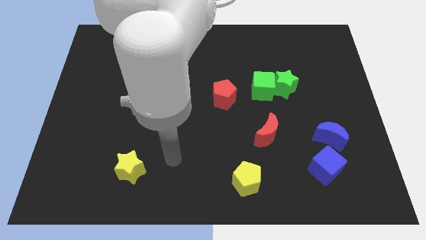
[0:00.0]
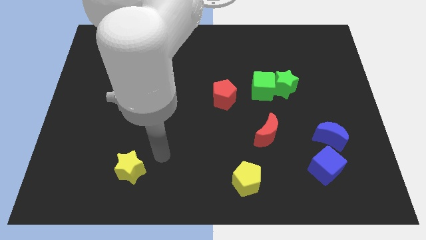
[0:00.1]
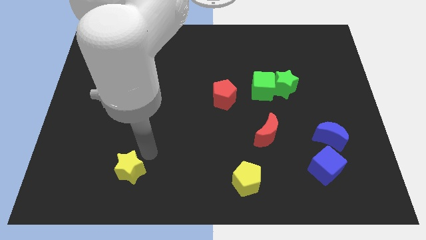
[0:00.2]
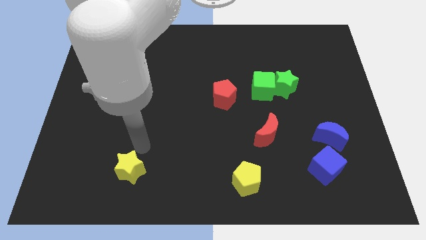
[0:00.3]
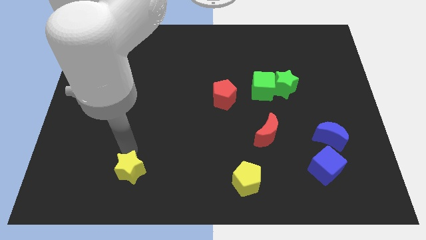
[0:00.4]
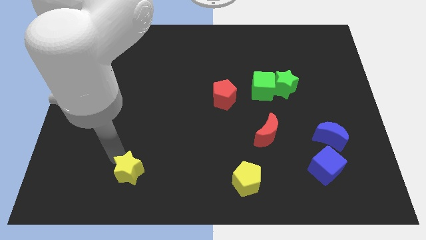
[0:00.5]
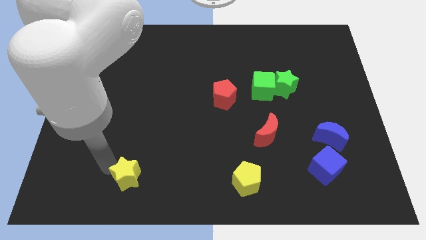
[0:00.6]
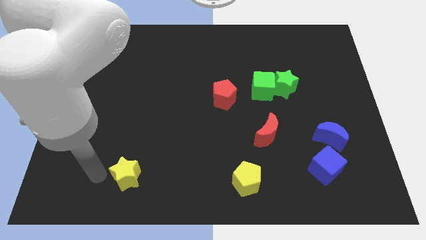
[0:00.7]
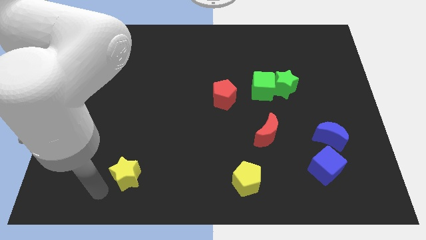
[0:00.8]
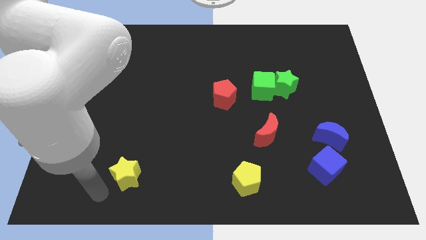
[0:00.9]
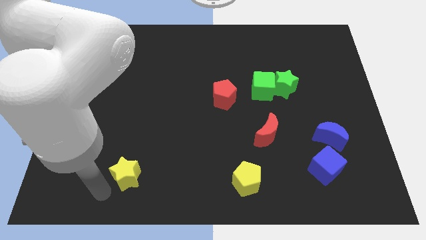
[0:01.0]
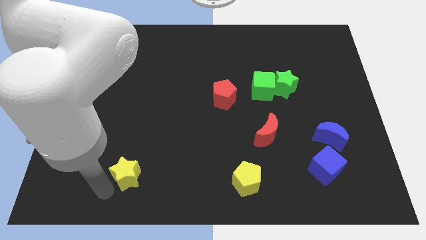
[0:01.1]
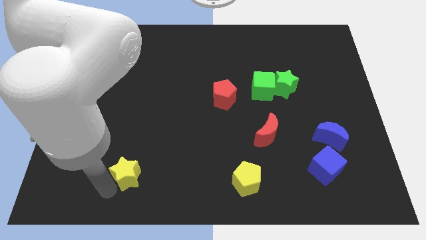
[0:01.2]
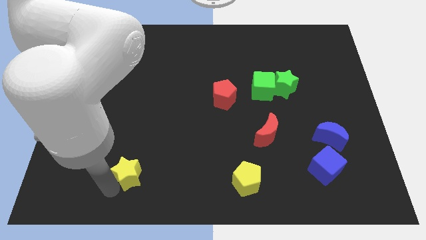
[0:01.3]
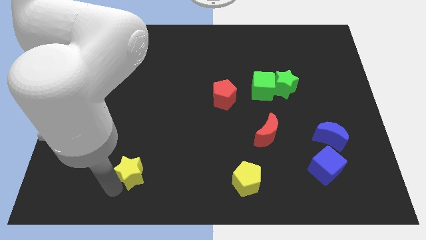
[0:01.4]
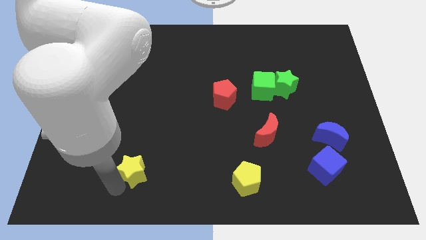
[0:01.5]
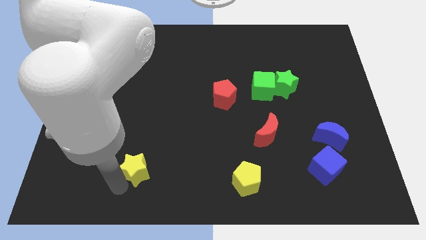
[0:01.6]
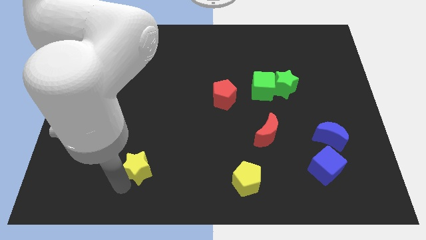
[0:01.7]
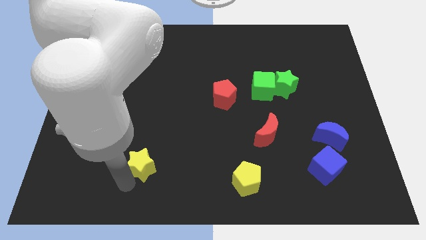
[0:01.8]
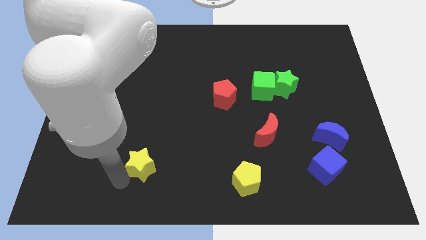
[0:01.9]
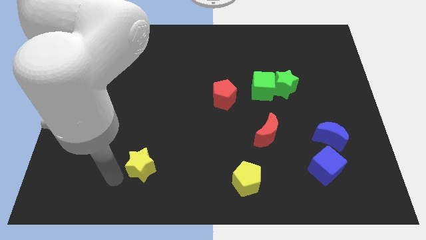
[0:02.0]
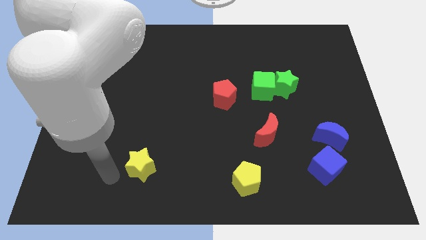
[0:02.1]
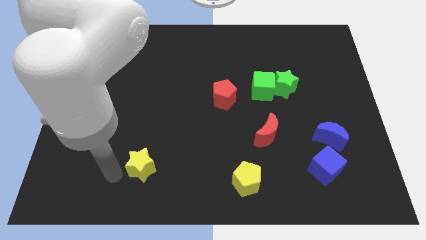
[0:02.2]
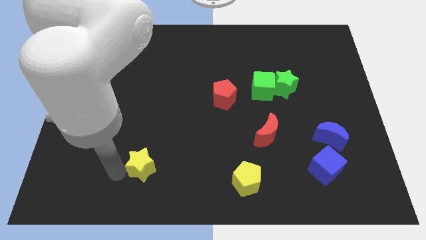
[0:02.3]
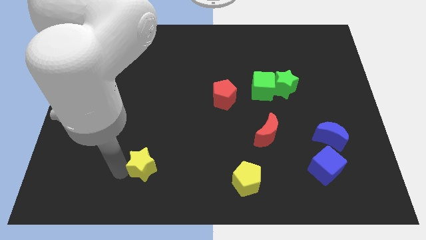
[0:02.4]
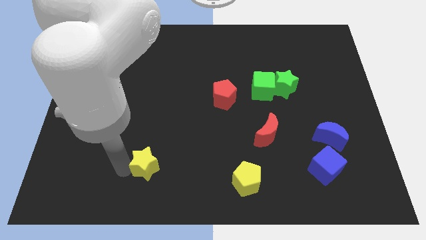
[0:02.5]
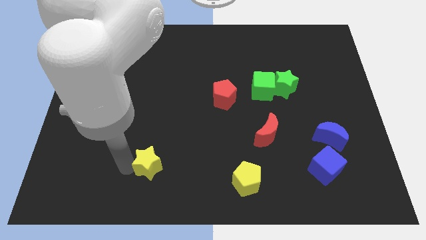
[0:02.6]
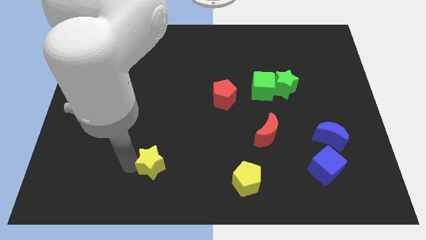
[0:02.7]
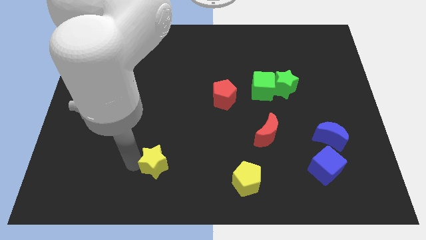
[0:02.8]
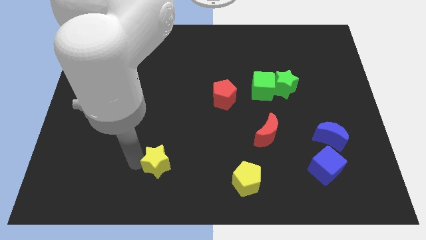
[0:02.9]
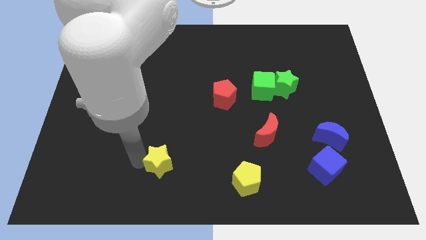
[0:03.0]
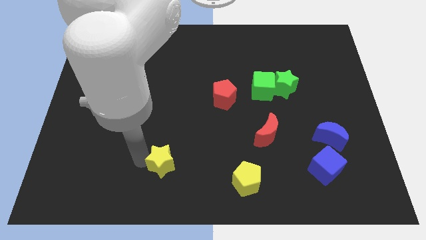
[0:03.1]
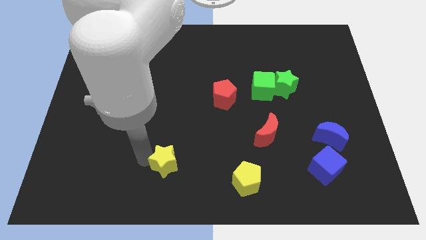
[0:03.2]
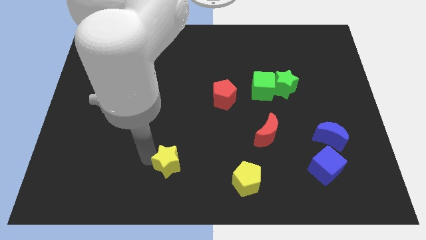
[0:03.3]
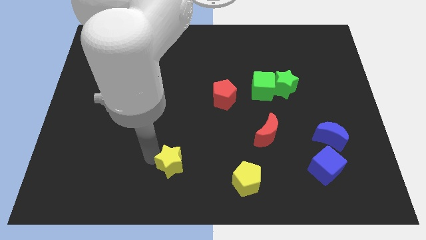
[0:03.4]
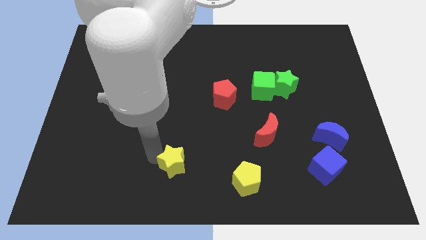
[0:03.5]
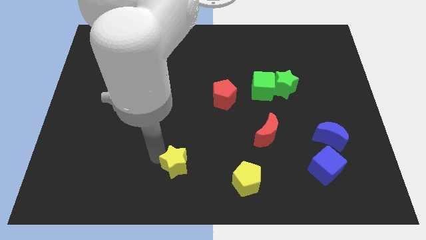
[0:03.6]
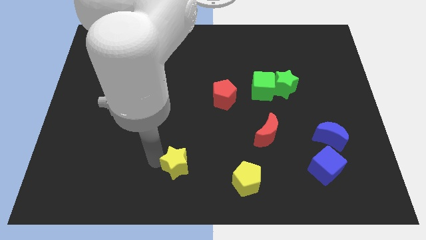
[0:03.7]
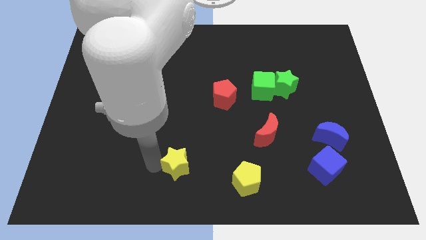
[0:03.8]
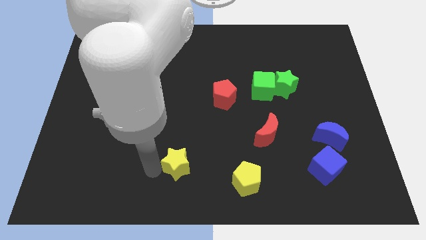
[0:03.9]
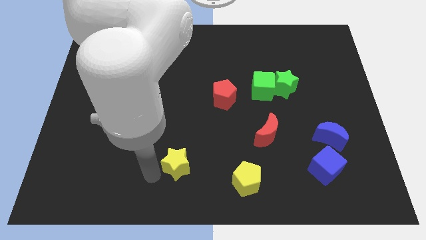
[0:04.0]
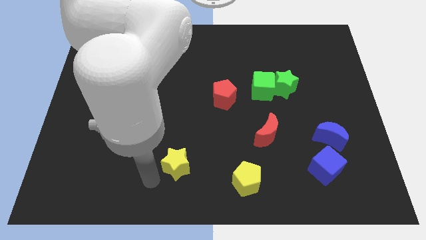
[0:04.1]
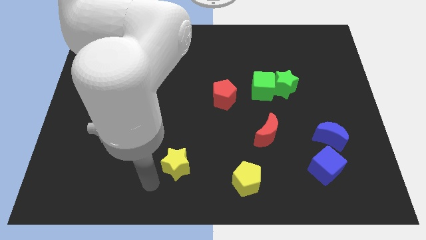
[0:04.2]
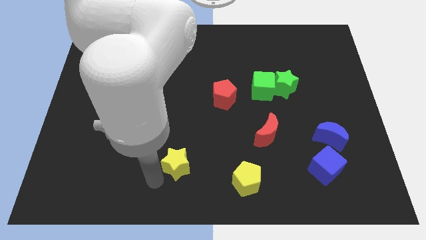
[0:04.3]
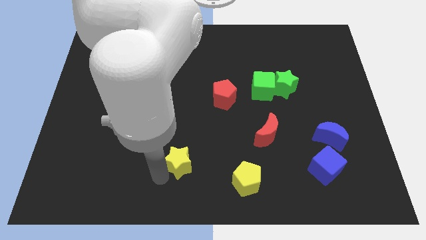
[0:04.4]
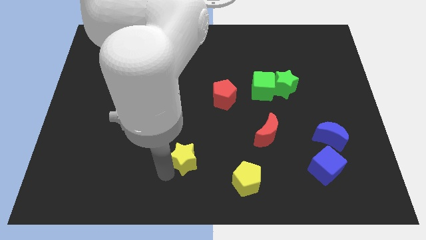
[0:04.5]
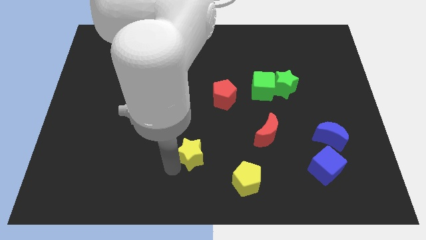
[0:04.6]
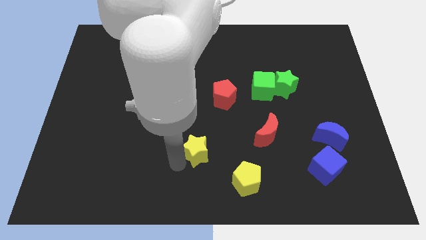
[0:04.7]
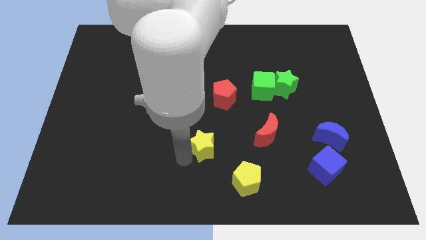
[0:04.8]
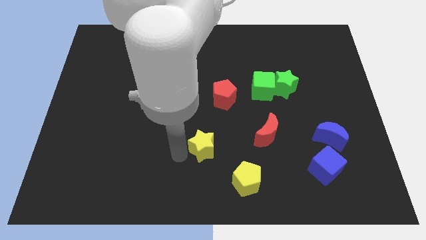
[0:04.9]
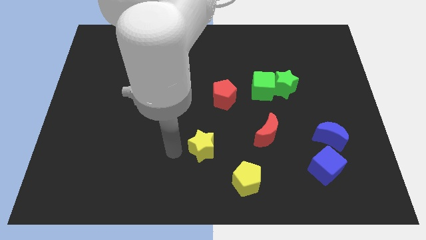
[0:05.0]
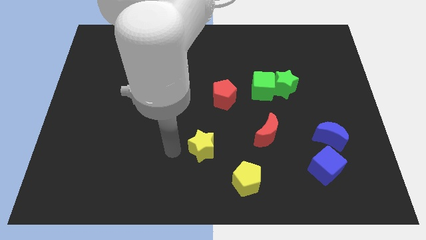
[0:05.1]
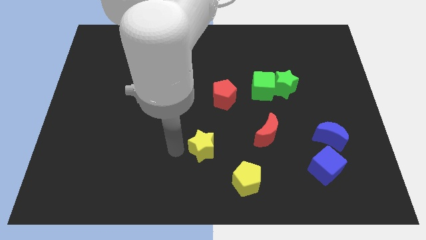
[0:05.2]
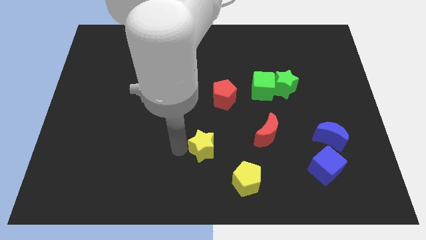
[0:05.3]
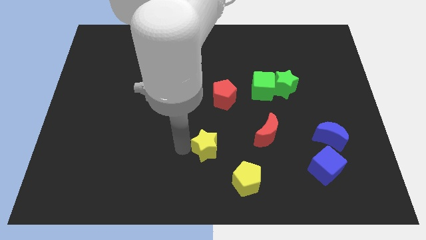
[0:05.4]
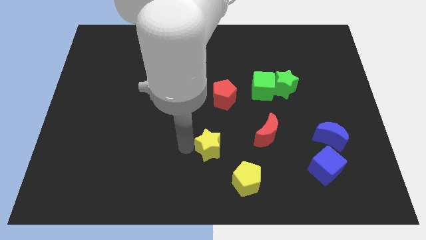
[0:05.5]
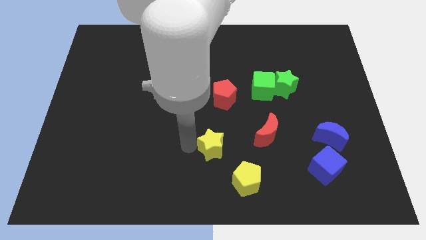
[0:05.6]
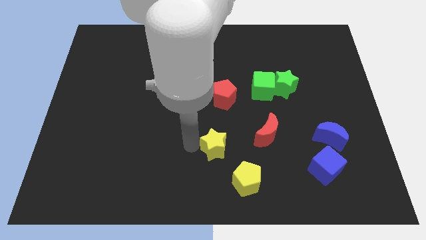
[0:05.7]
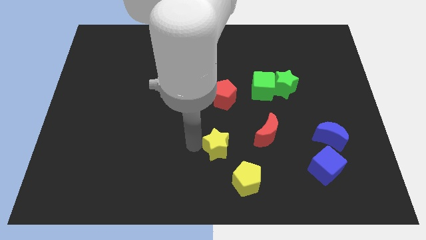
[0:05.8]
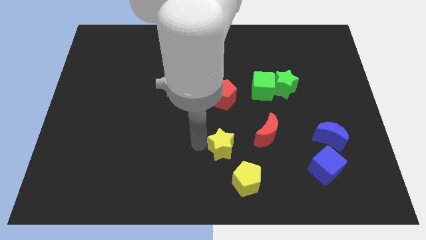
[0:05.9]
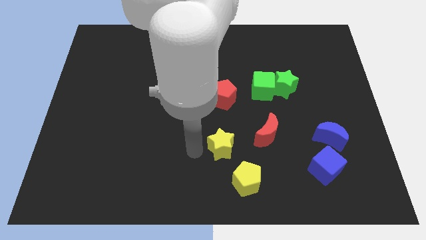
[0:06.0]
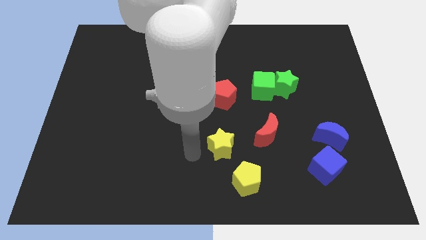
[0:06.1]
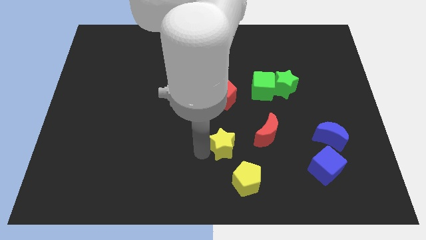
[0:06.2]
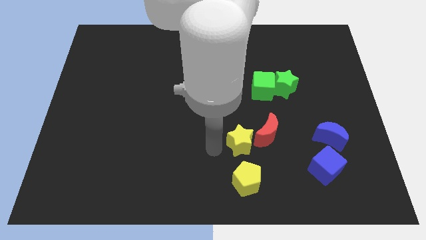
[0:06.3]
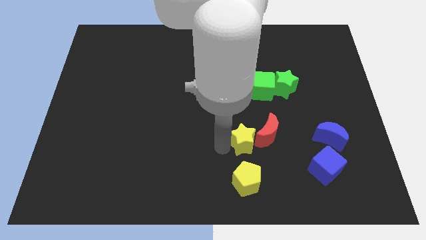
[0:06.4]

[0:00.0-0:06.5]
slide the yellow star to the red moon

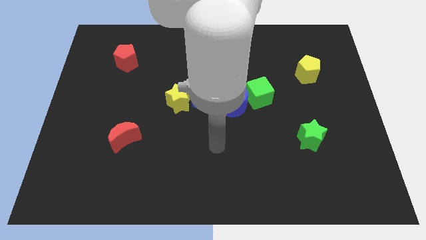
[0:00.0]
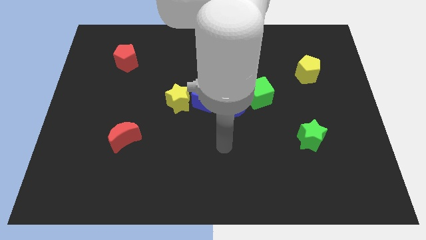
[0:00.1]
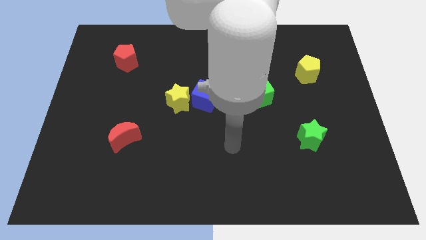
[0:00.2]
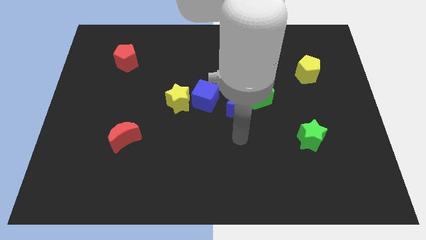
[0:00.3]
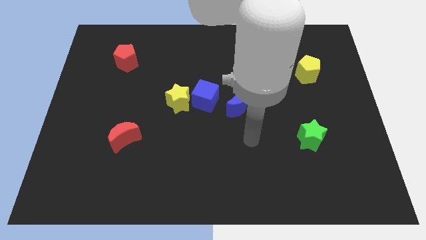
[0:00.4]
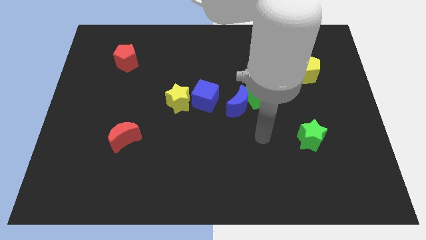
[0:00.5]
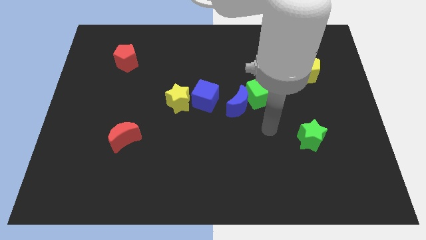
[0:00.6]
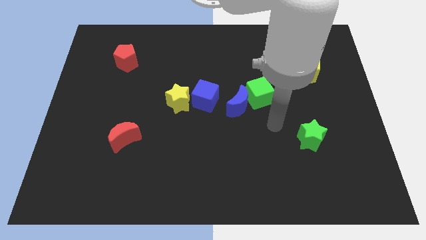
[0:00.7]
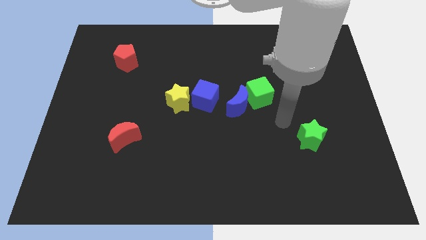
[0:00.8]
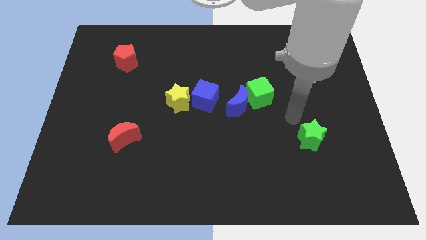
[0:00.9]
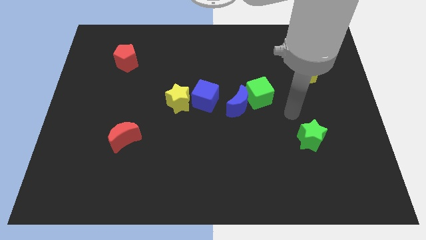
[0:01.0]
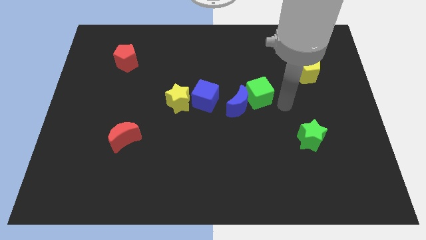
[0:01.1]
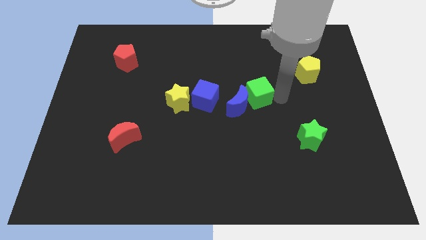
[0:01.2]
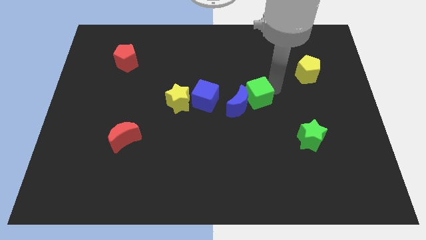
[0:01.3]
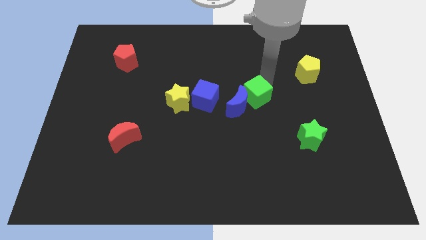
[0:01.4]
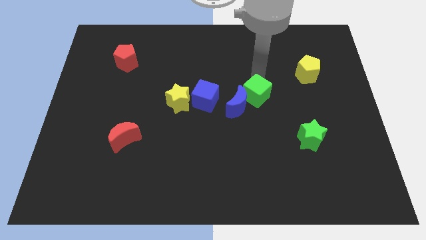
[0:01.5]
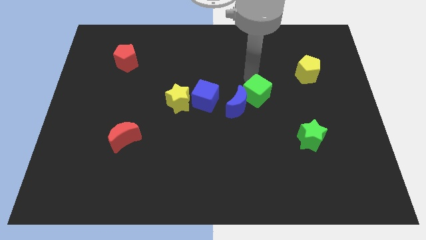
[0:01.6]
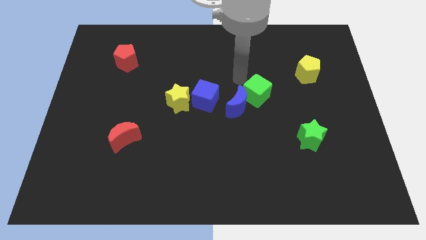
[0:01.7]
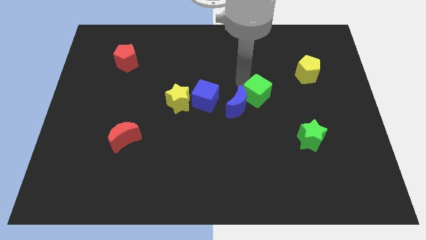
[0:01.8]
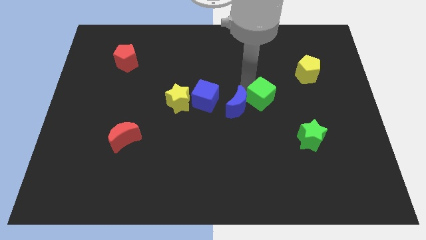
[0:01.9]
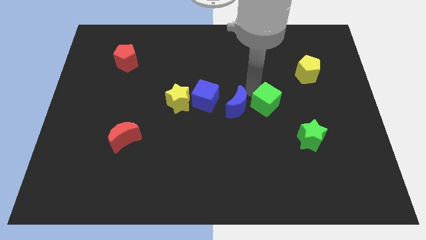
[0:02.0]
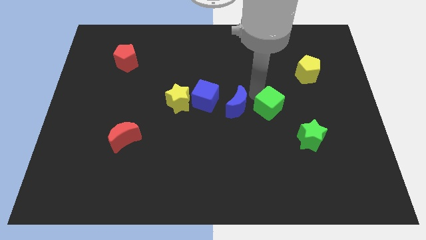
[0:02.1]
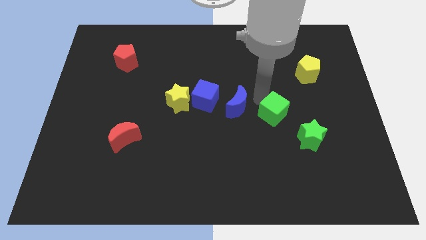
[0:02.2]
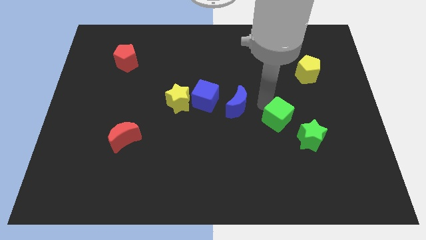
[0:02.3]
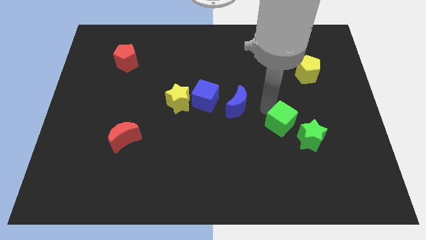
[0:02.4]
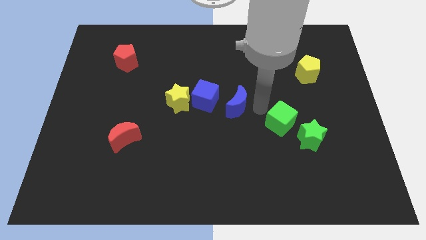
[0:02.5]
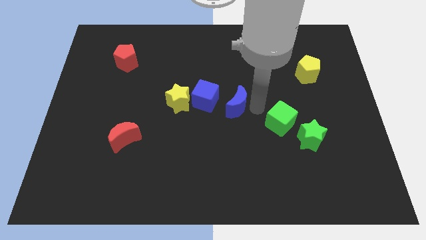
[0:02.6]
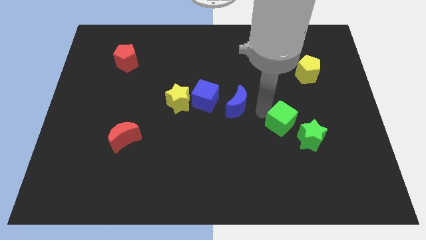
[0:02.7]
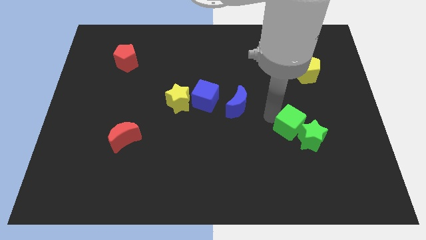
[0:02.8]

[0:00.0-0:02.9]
push the green cube close to the green star
